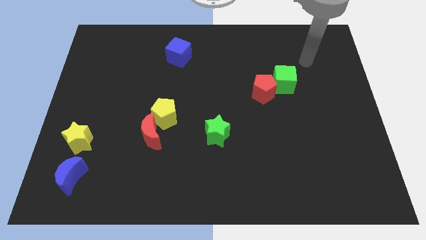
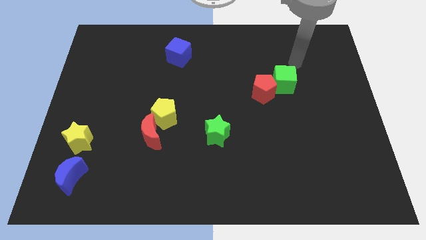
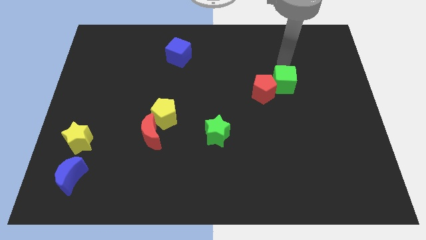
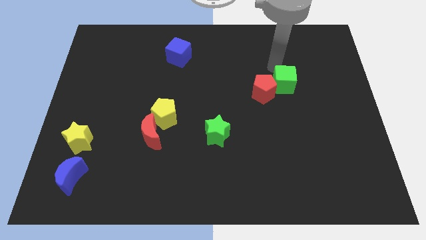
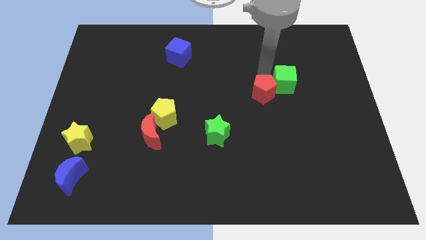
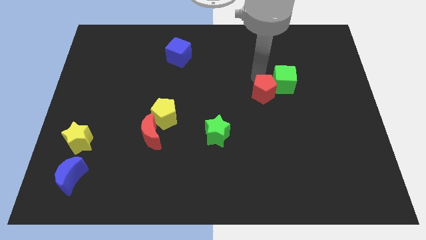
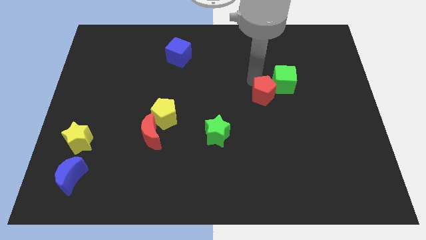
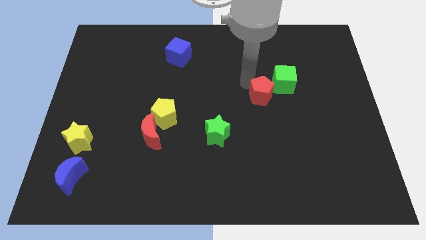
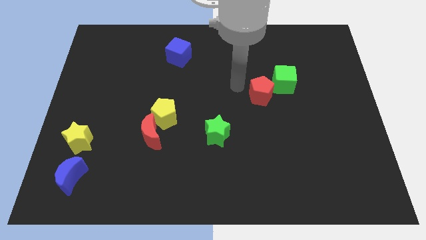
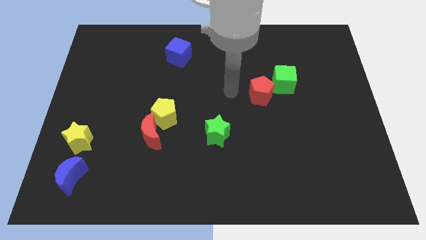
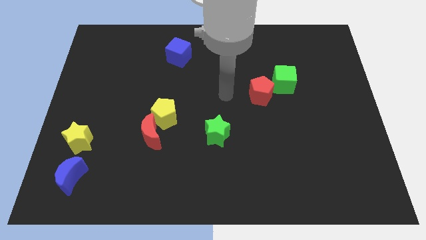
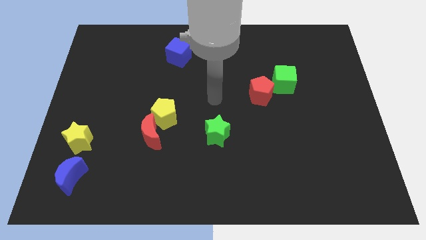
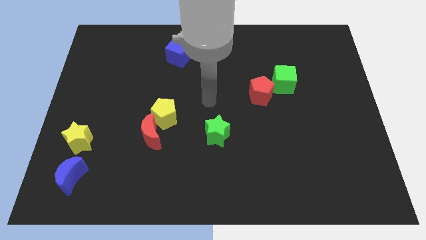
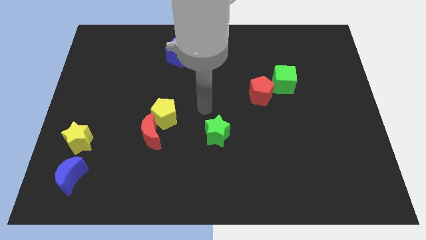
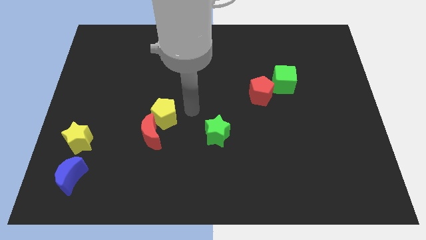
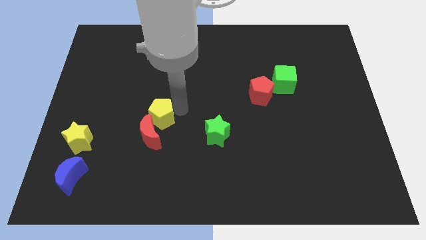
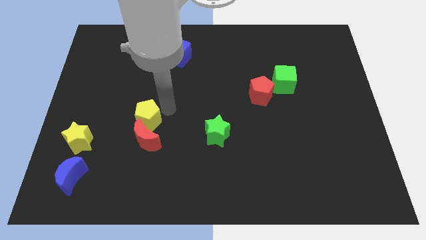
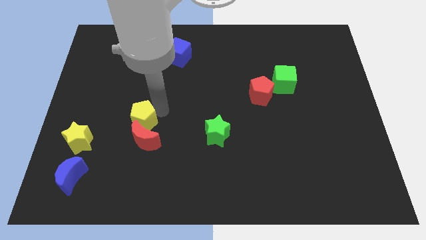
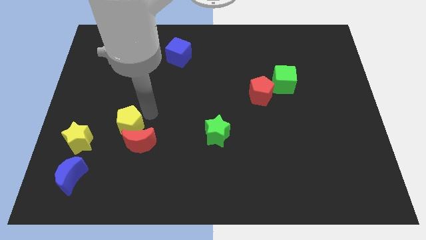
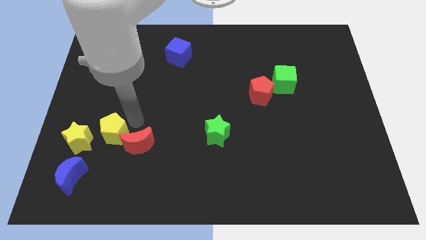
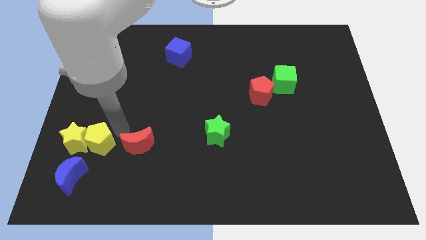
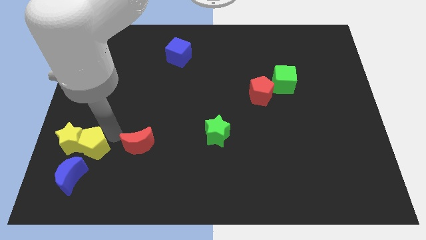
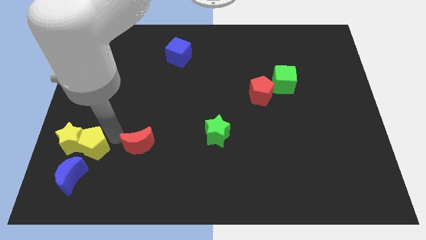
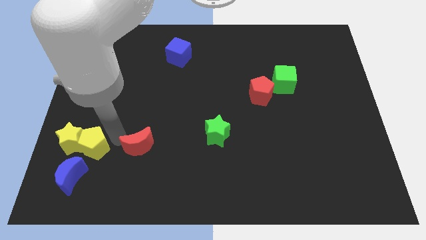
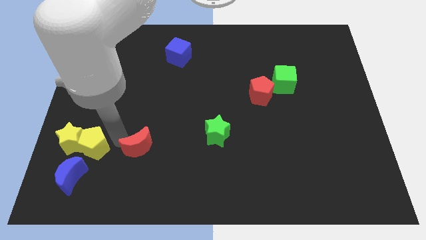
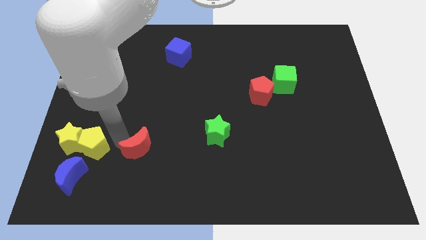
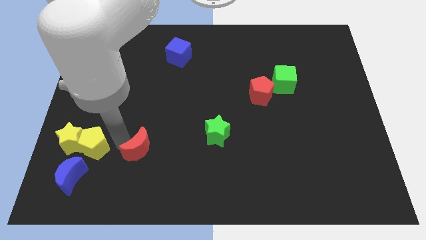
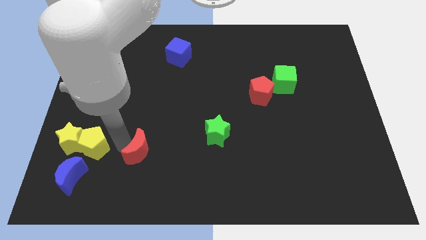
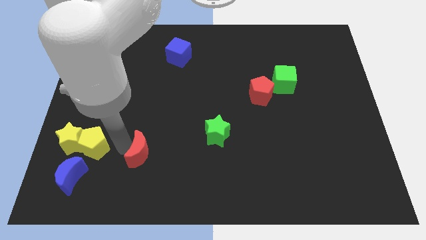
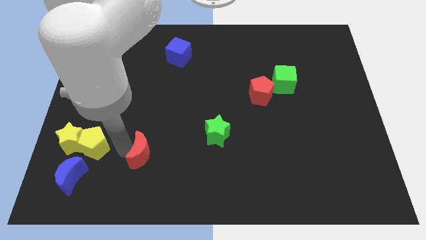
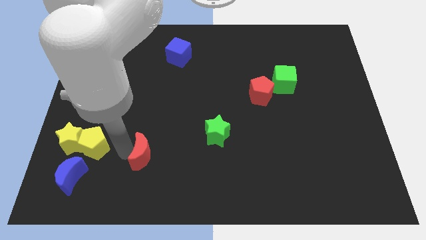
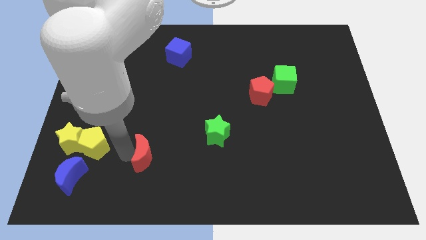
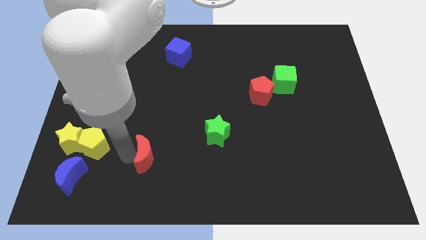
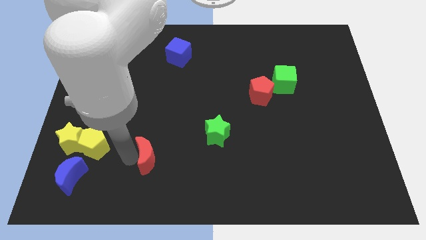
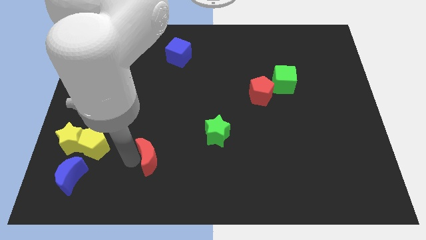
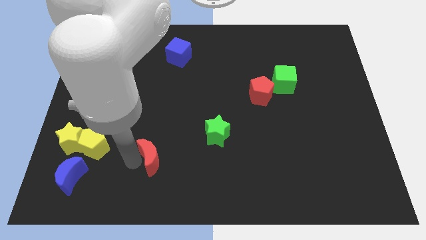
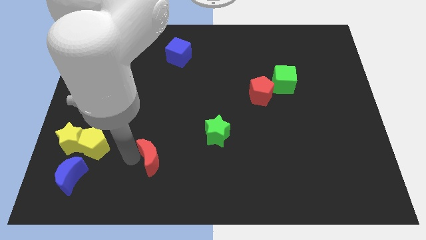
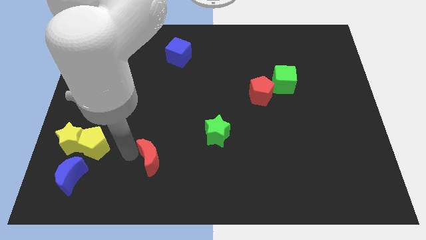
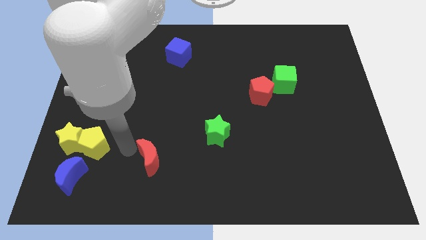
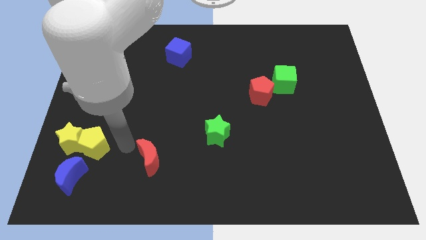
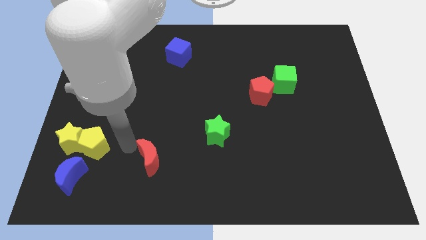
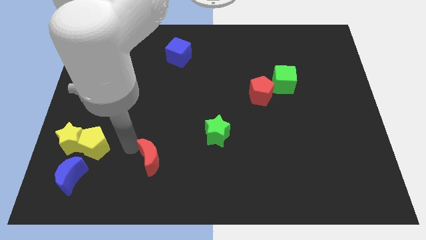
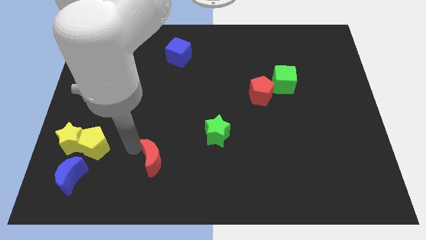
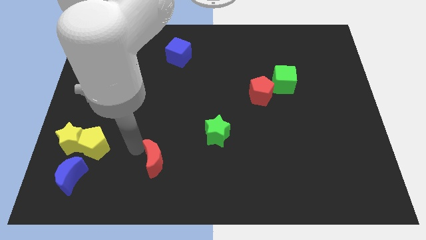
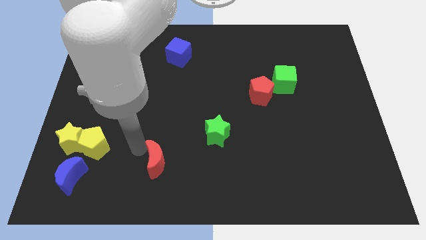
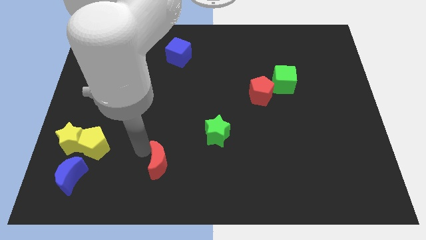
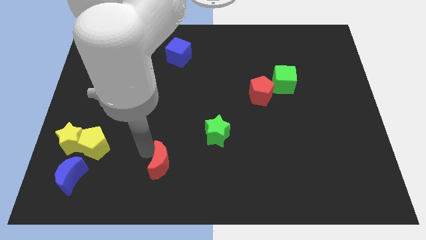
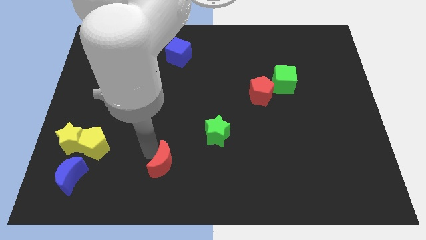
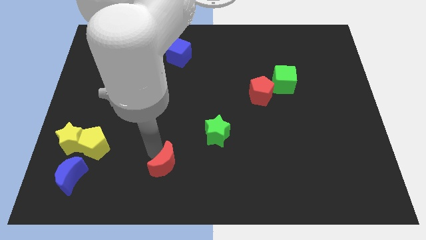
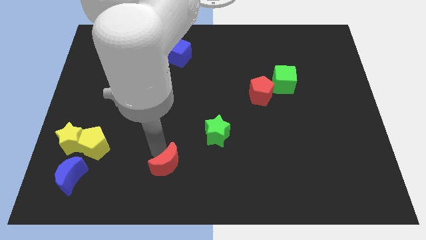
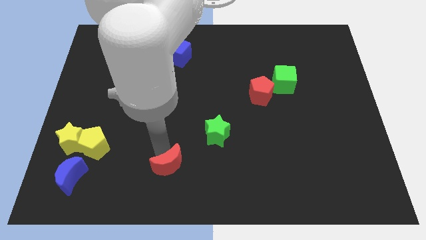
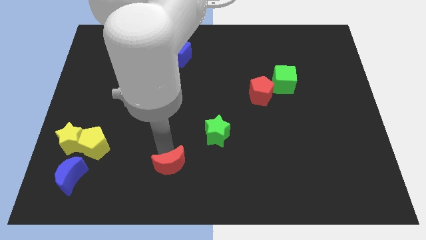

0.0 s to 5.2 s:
move the red moon to the bottom

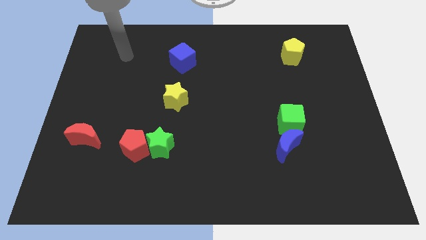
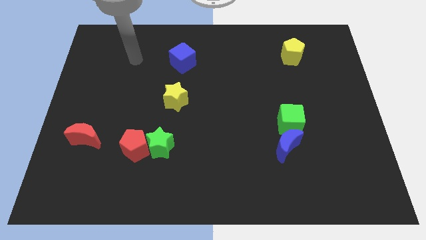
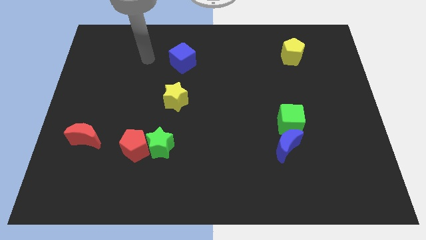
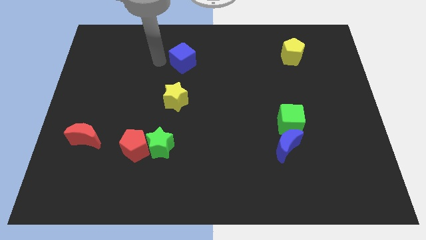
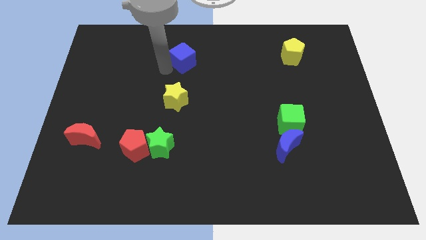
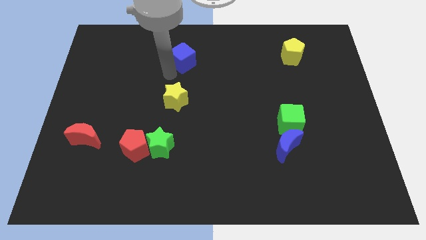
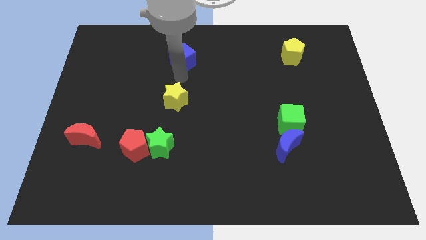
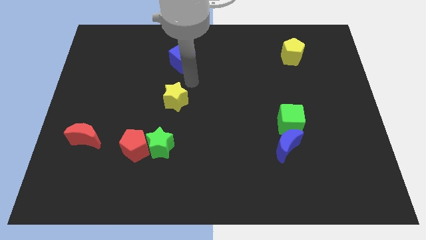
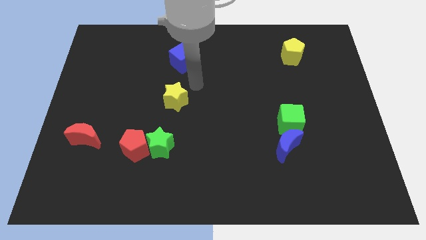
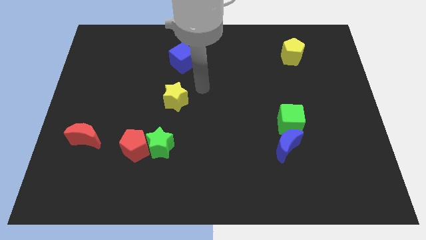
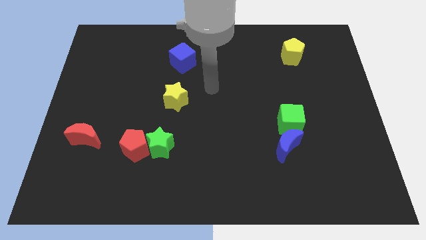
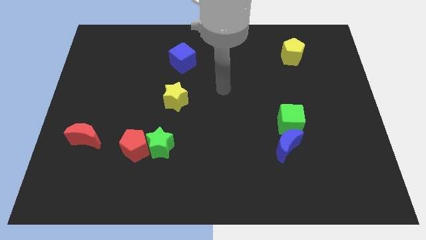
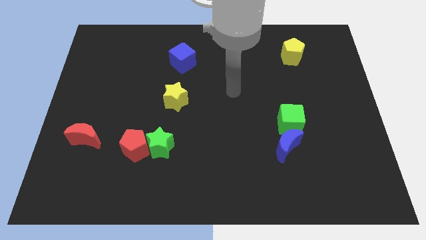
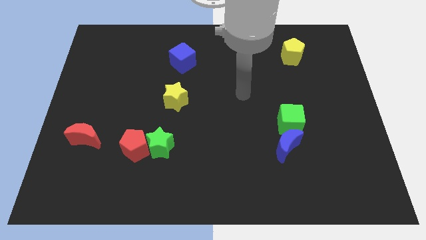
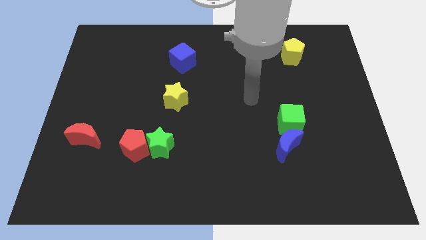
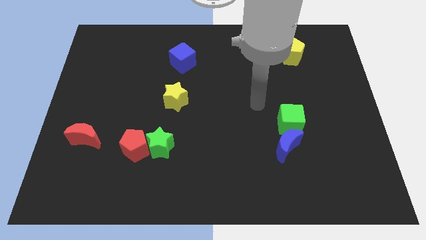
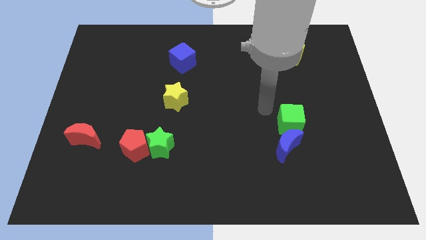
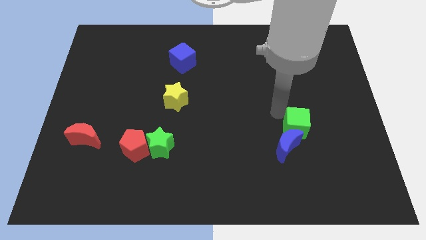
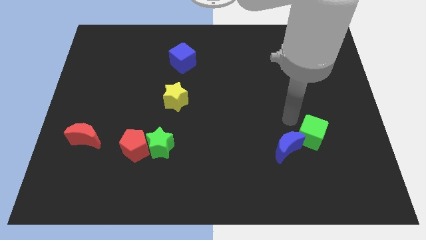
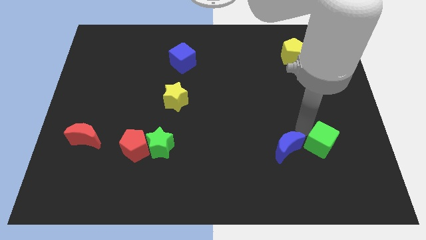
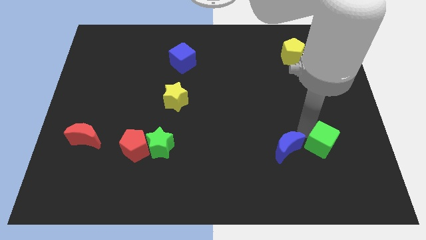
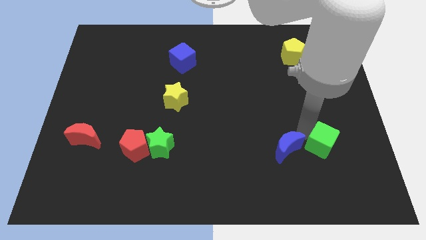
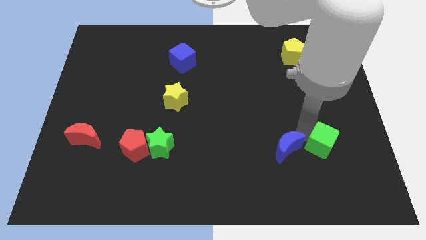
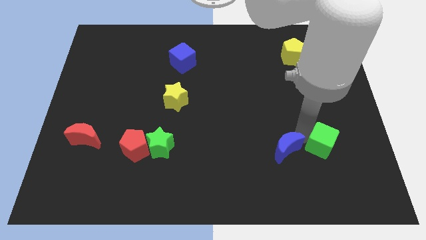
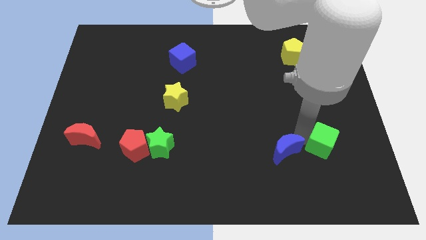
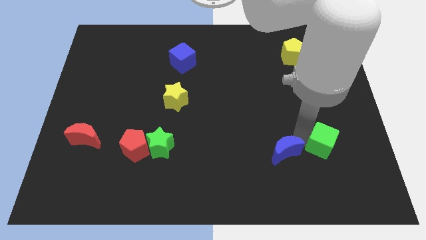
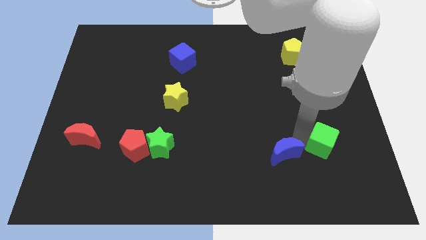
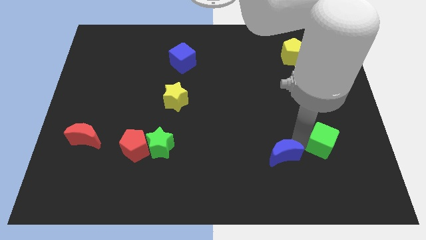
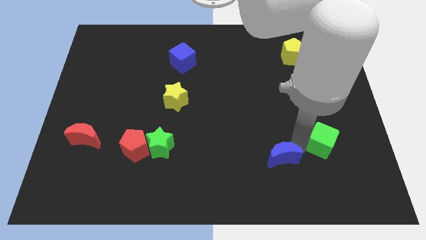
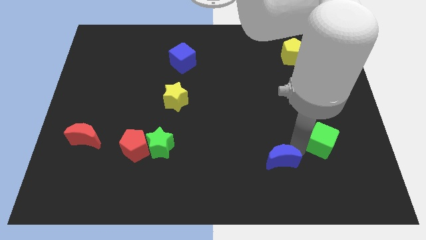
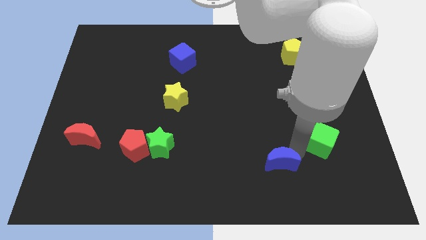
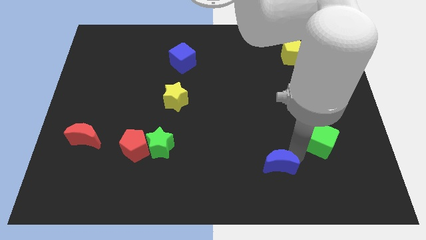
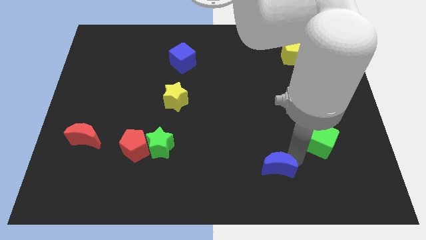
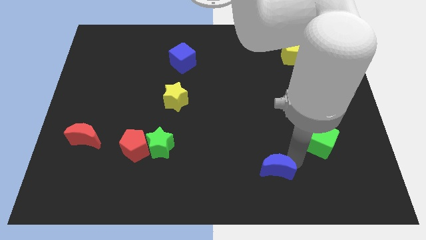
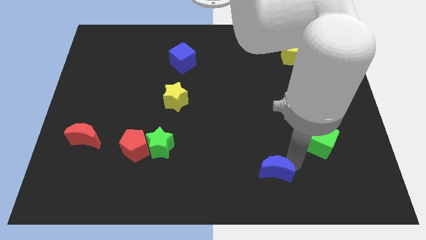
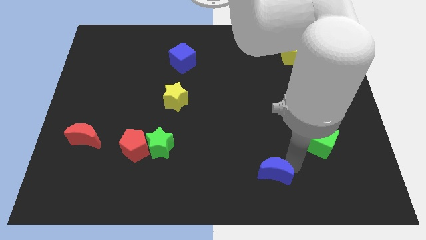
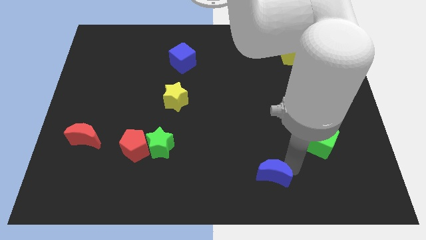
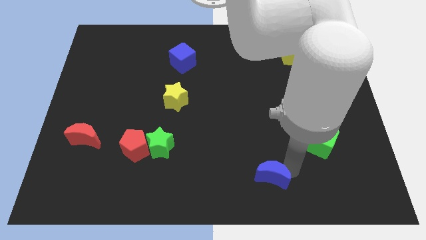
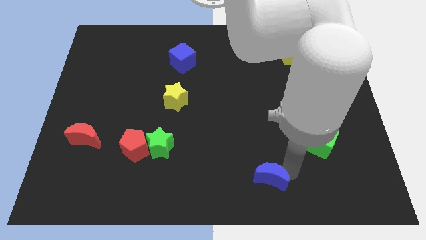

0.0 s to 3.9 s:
put the blue moon to the bottom side
